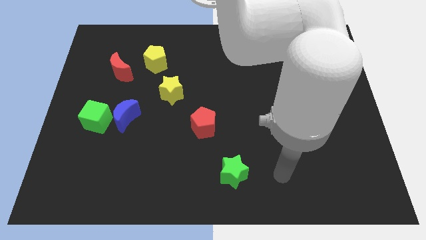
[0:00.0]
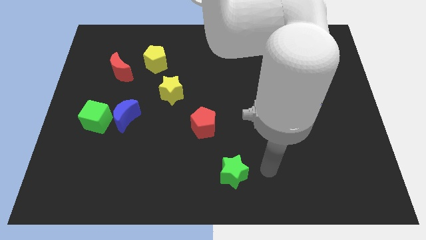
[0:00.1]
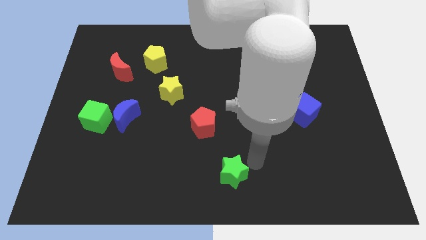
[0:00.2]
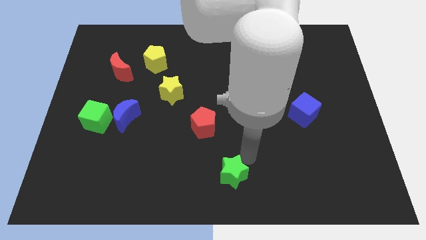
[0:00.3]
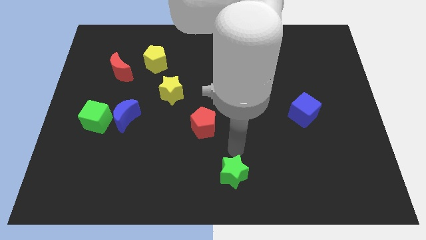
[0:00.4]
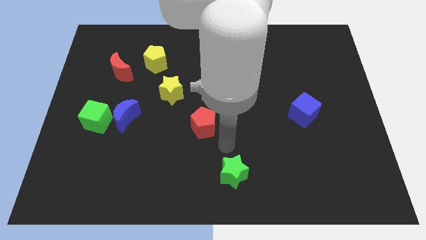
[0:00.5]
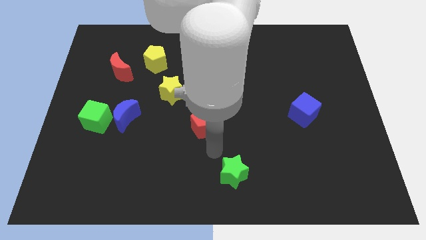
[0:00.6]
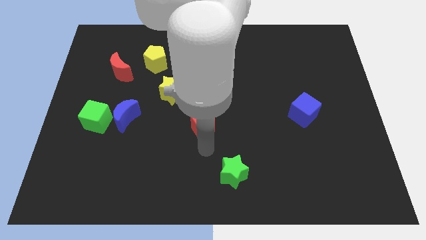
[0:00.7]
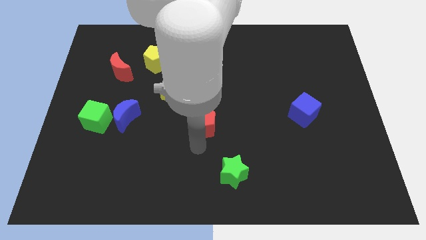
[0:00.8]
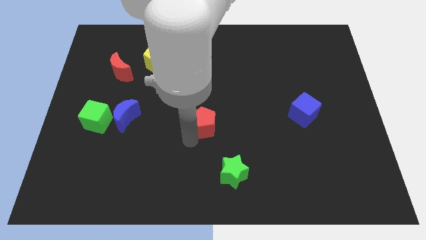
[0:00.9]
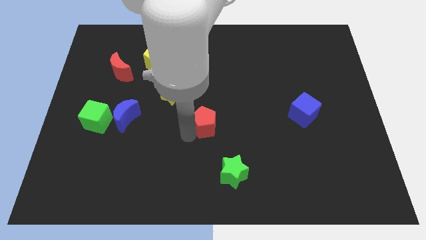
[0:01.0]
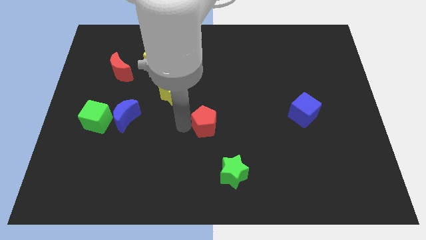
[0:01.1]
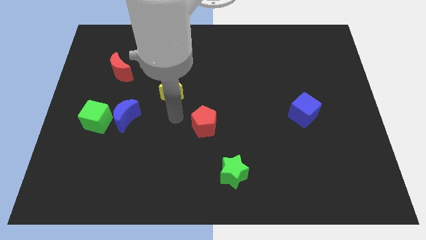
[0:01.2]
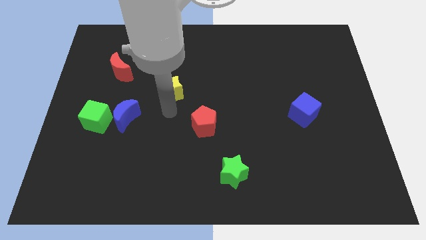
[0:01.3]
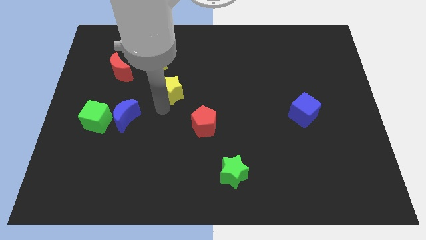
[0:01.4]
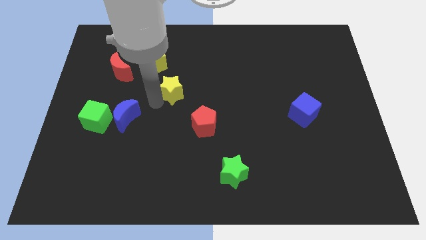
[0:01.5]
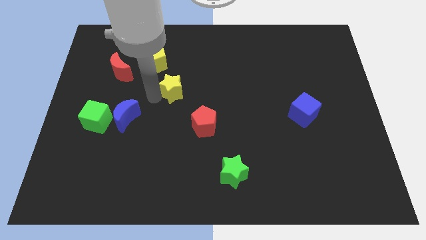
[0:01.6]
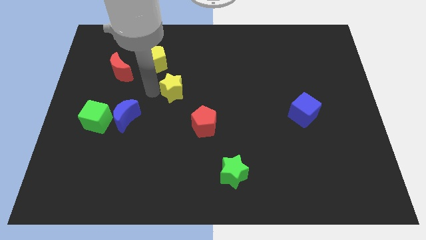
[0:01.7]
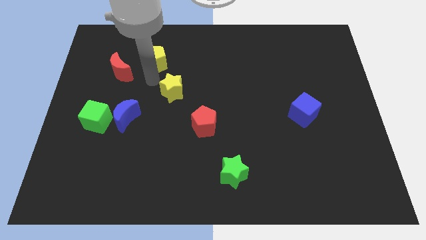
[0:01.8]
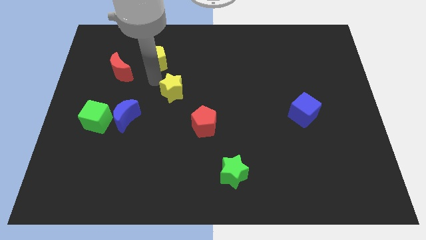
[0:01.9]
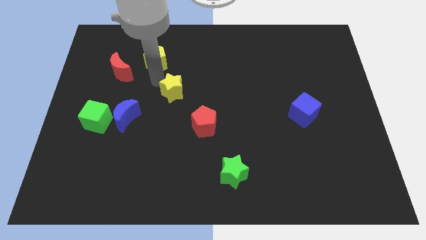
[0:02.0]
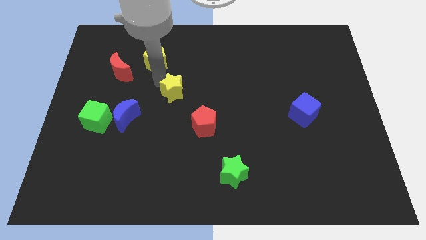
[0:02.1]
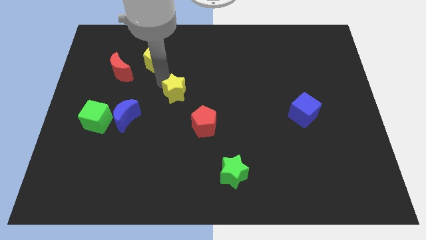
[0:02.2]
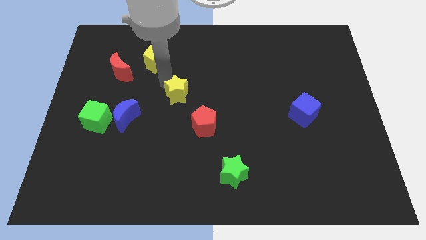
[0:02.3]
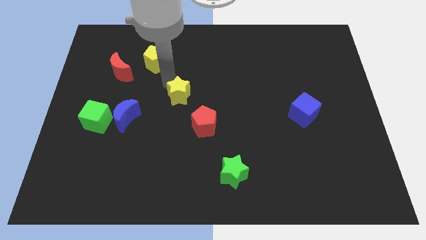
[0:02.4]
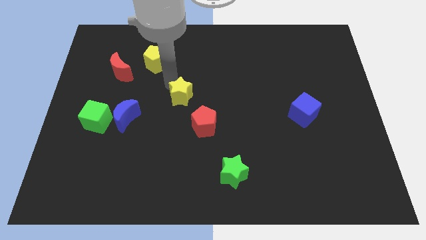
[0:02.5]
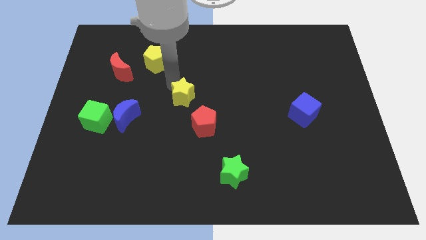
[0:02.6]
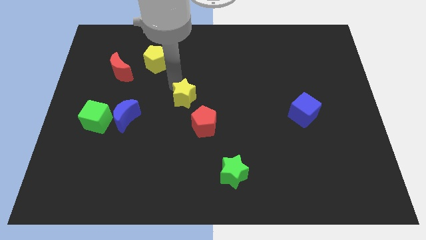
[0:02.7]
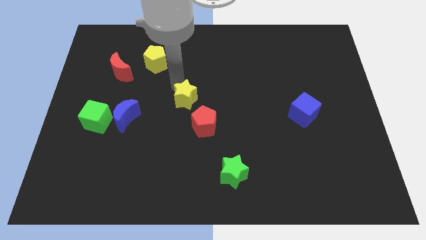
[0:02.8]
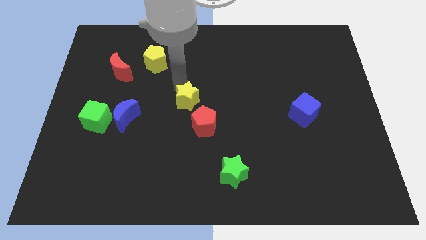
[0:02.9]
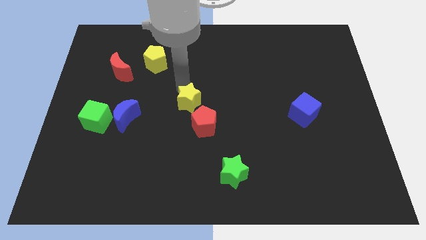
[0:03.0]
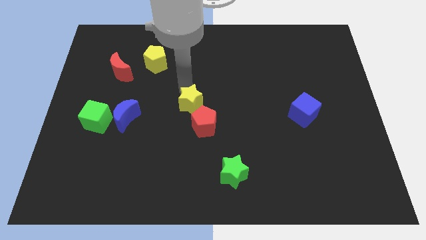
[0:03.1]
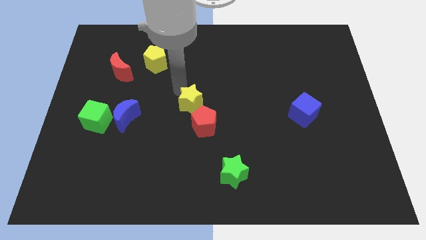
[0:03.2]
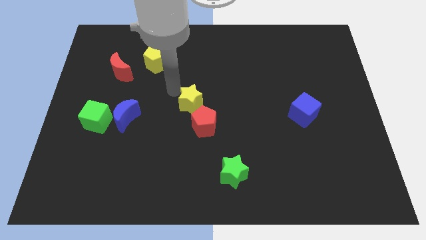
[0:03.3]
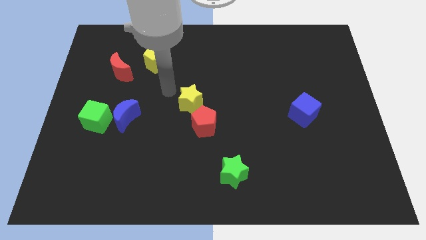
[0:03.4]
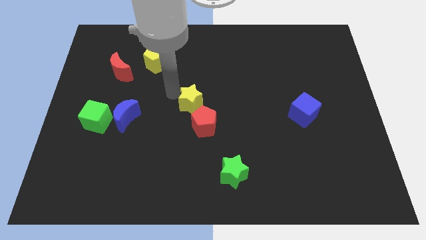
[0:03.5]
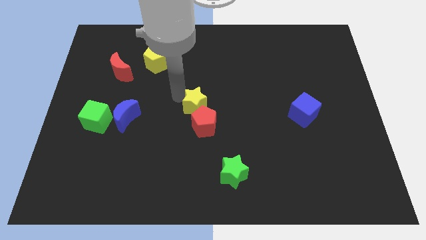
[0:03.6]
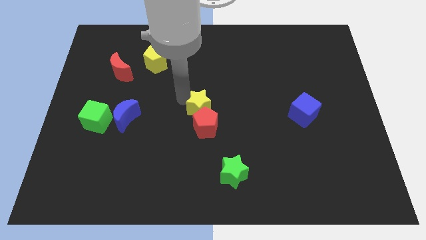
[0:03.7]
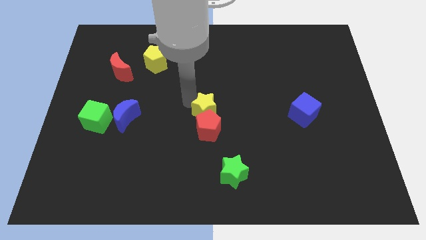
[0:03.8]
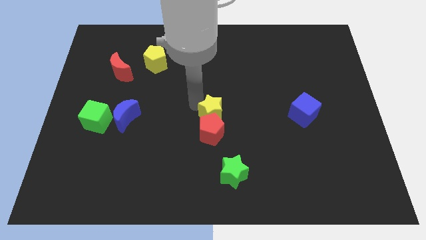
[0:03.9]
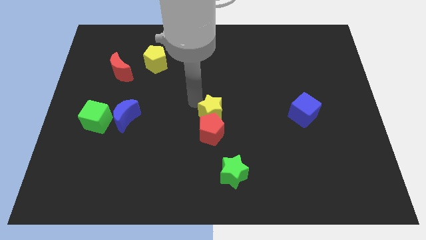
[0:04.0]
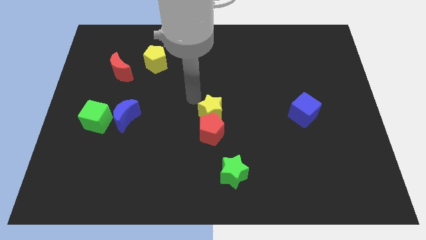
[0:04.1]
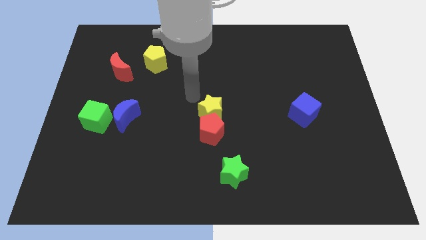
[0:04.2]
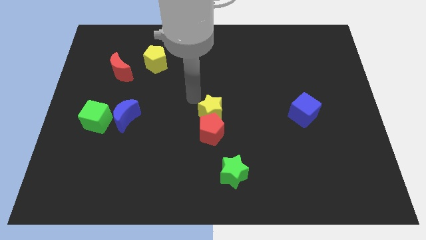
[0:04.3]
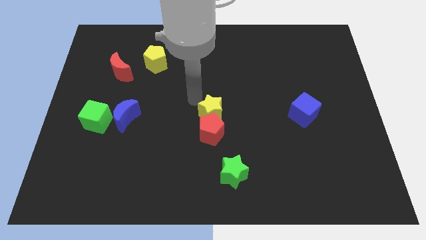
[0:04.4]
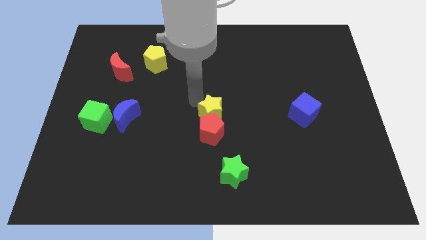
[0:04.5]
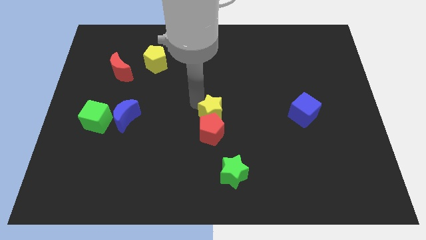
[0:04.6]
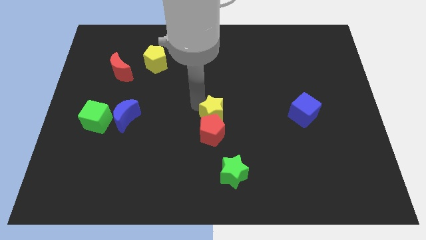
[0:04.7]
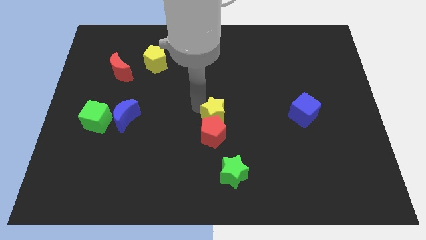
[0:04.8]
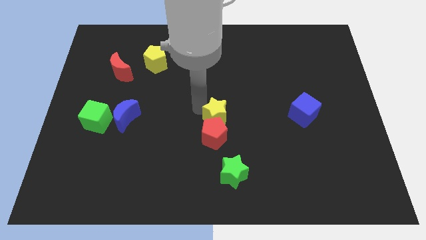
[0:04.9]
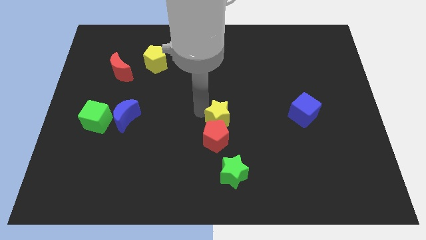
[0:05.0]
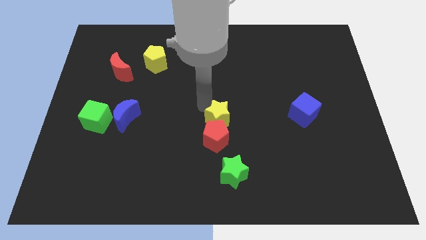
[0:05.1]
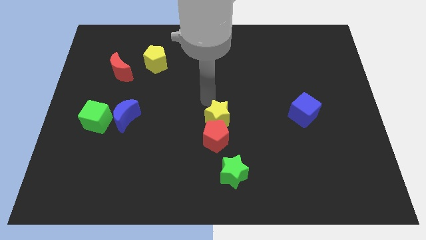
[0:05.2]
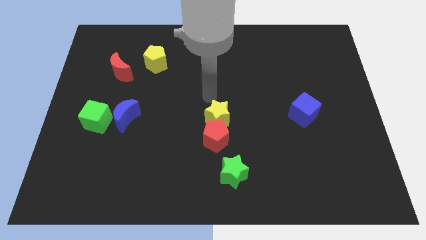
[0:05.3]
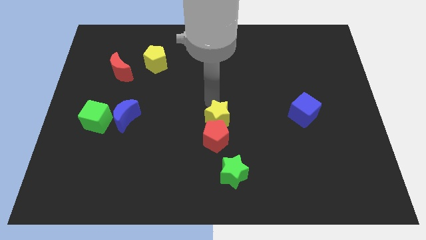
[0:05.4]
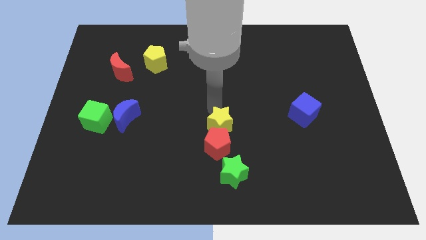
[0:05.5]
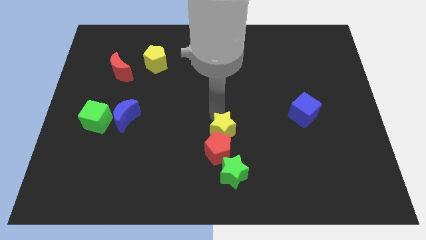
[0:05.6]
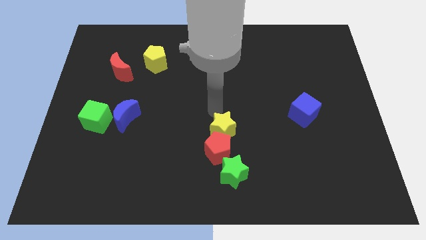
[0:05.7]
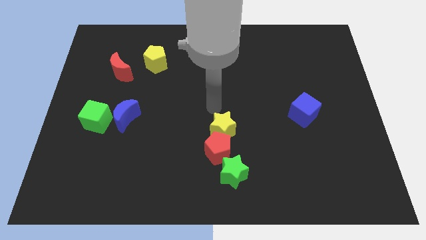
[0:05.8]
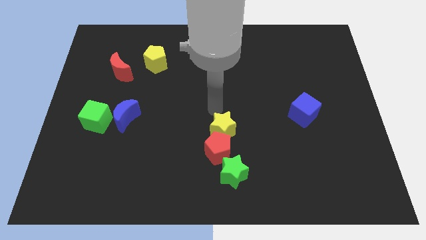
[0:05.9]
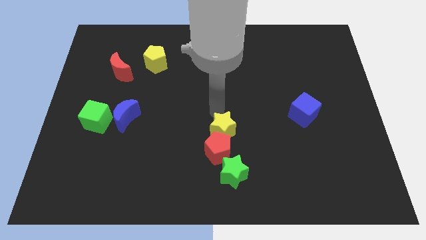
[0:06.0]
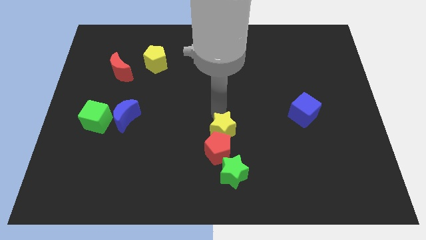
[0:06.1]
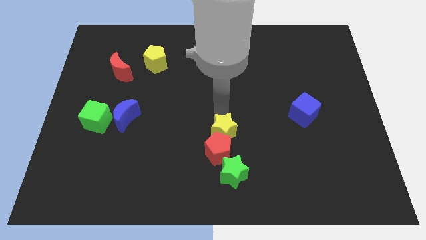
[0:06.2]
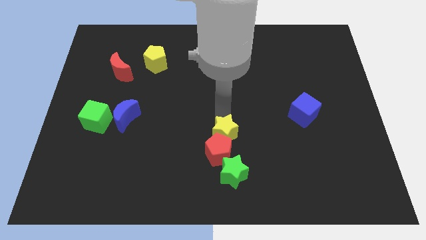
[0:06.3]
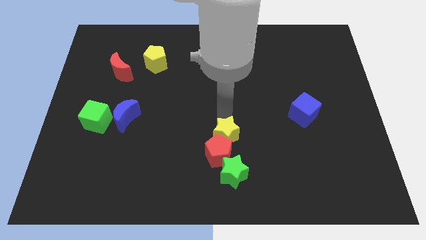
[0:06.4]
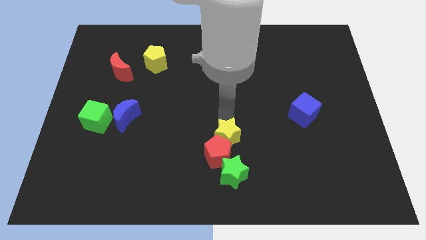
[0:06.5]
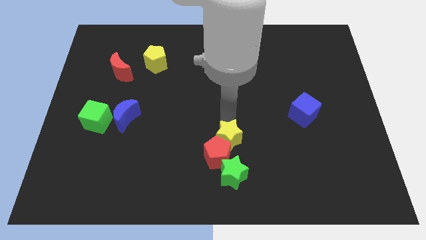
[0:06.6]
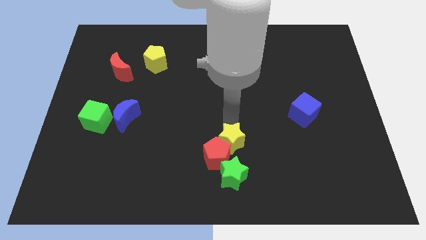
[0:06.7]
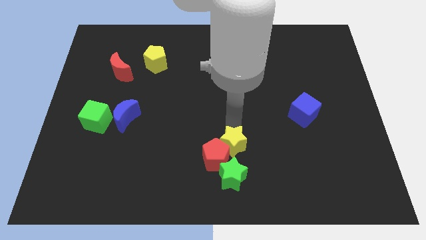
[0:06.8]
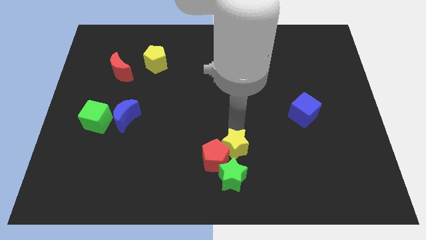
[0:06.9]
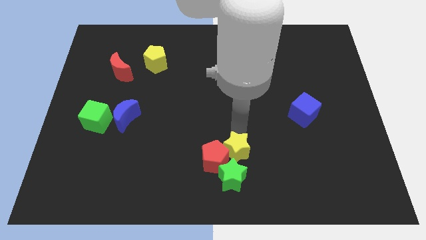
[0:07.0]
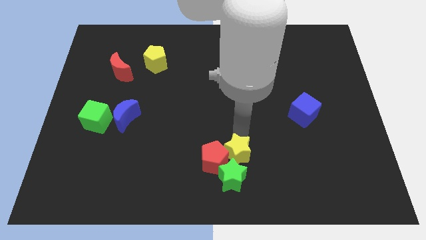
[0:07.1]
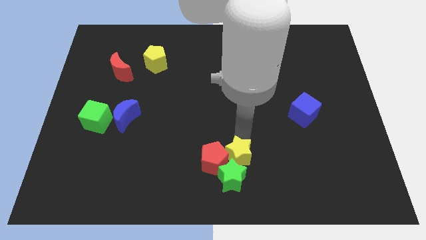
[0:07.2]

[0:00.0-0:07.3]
push the yellow star close to the green star

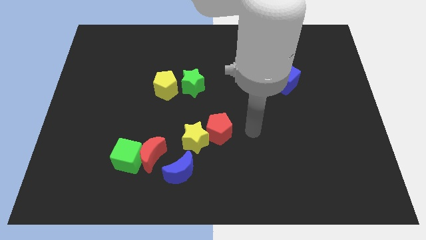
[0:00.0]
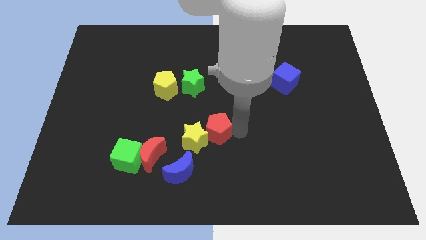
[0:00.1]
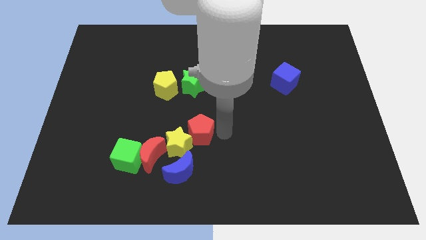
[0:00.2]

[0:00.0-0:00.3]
move the yellow star close to the red moon
